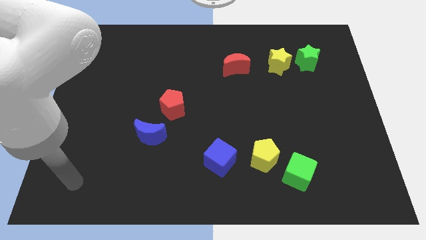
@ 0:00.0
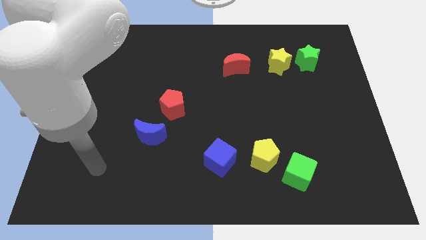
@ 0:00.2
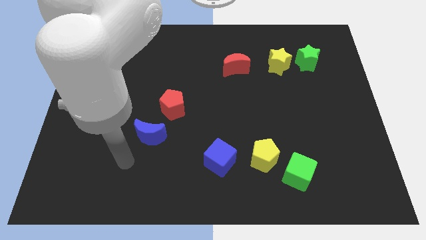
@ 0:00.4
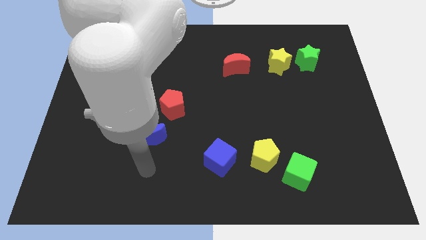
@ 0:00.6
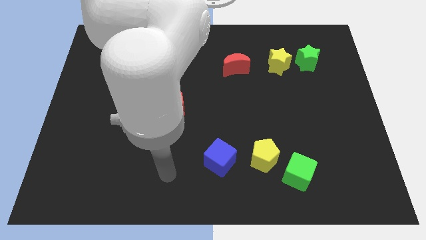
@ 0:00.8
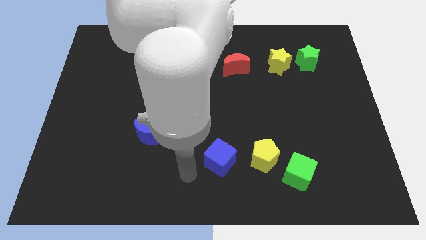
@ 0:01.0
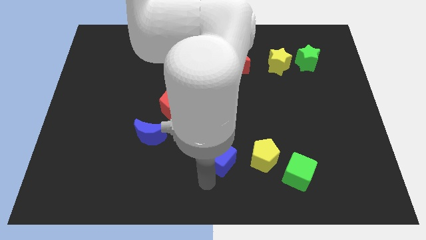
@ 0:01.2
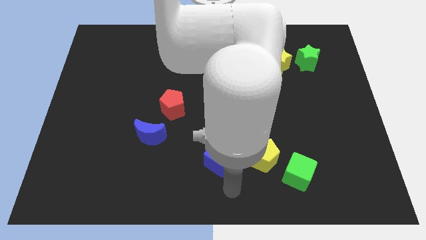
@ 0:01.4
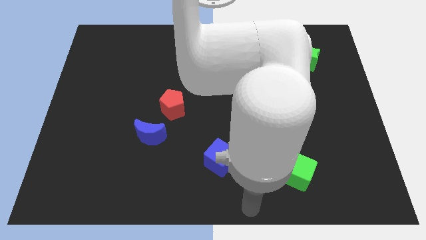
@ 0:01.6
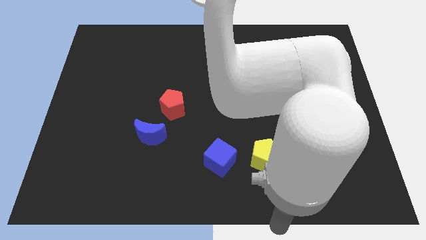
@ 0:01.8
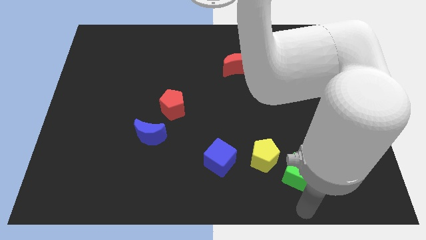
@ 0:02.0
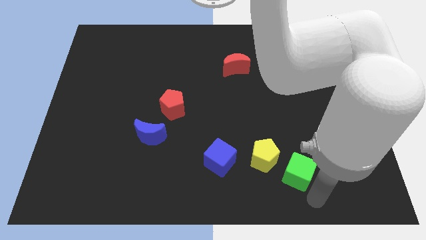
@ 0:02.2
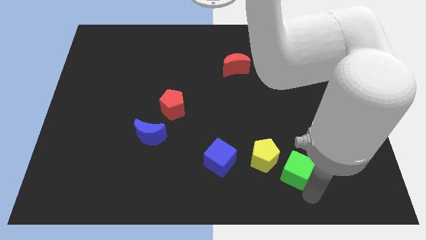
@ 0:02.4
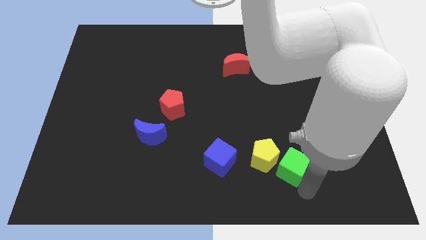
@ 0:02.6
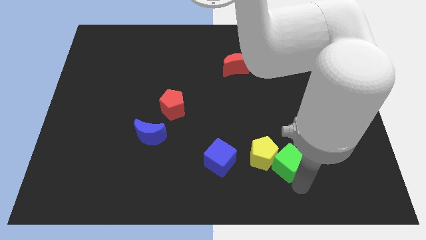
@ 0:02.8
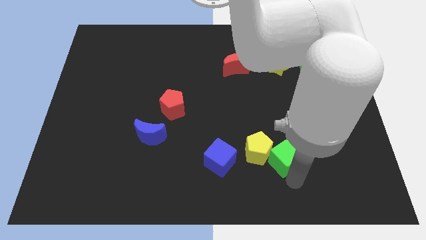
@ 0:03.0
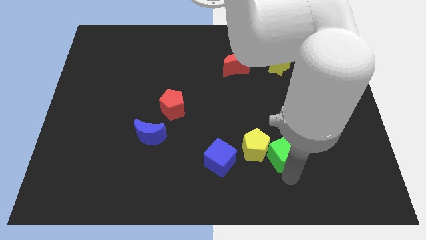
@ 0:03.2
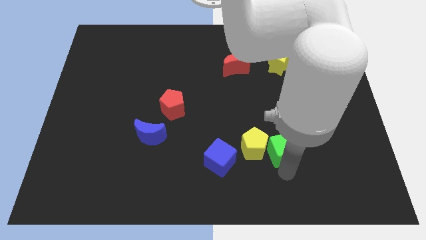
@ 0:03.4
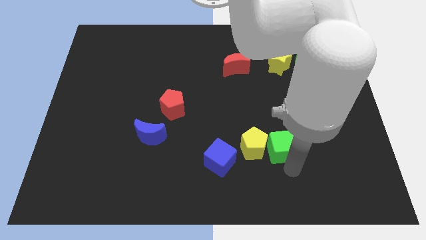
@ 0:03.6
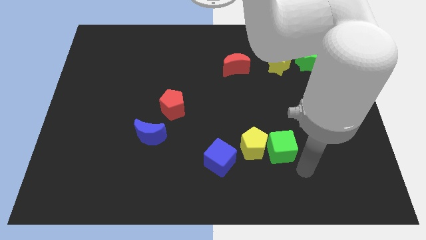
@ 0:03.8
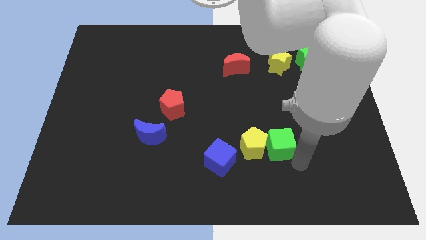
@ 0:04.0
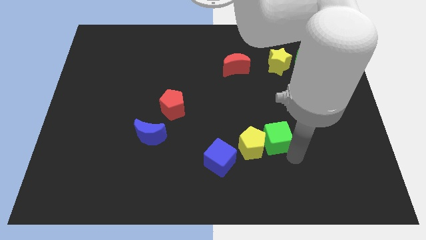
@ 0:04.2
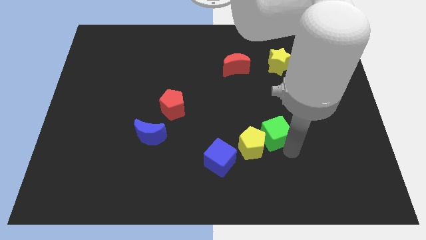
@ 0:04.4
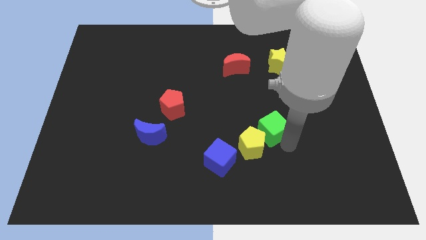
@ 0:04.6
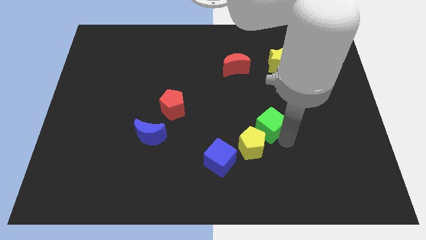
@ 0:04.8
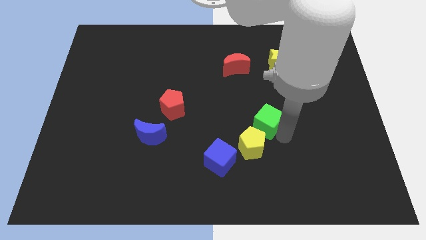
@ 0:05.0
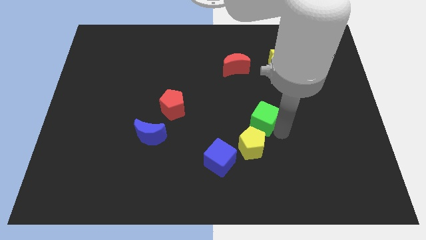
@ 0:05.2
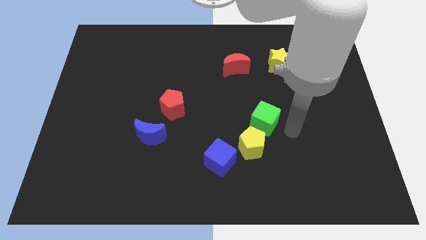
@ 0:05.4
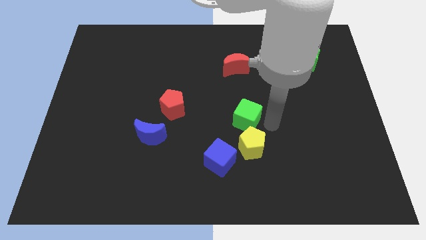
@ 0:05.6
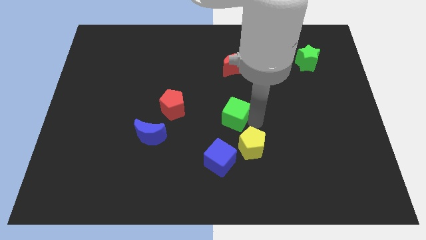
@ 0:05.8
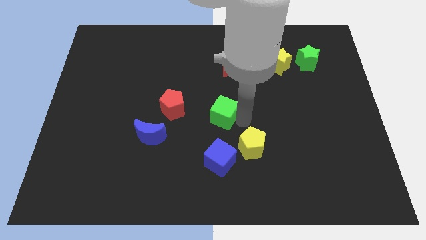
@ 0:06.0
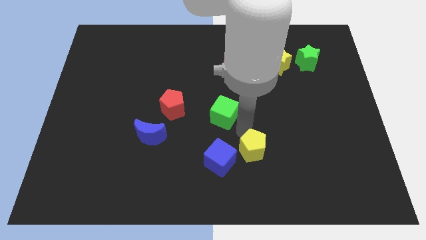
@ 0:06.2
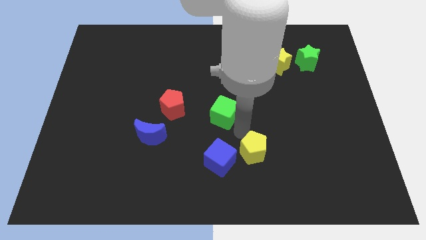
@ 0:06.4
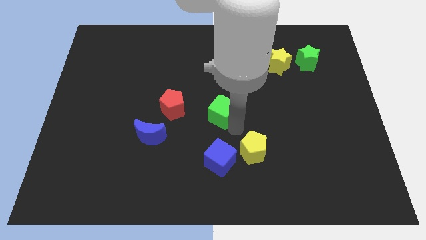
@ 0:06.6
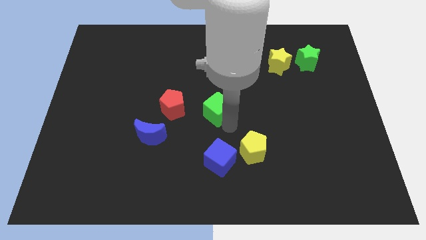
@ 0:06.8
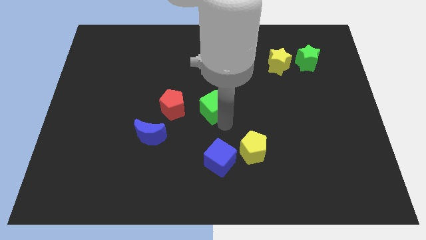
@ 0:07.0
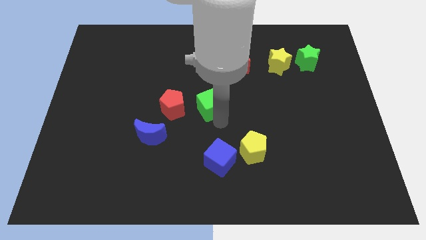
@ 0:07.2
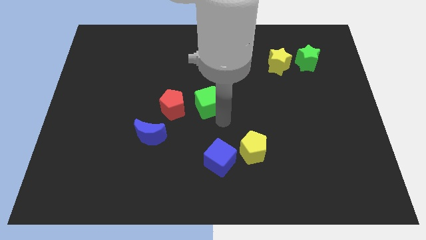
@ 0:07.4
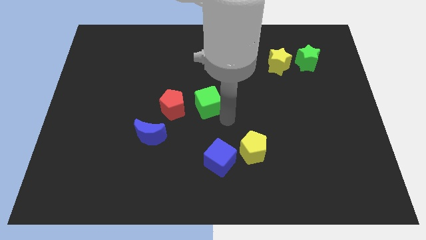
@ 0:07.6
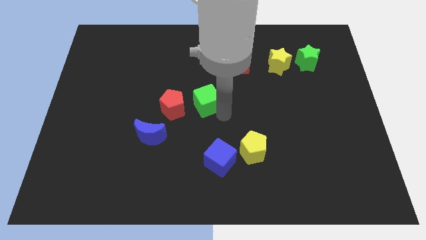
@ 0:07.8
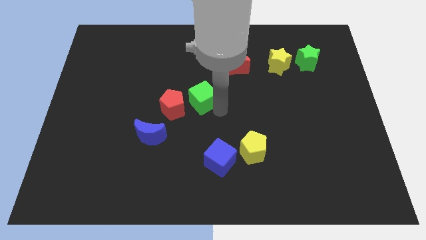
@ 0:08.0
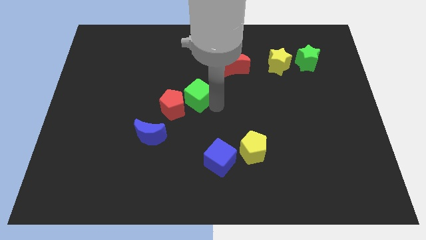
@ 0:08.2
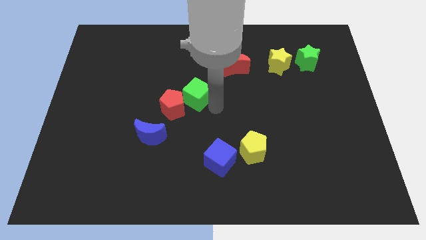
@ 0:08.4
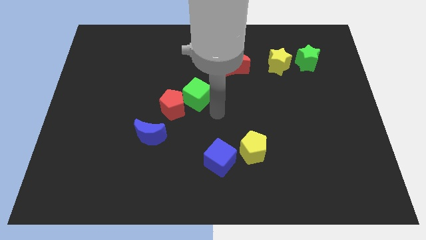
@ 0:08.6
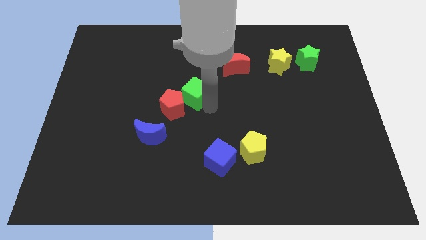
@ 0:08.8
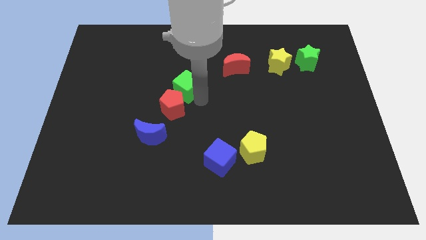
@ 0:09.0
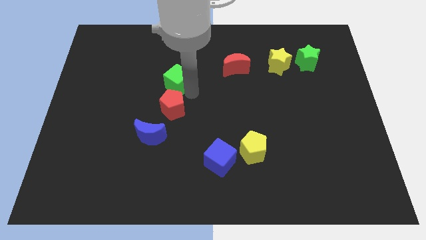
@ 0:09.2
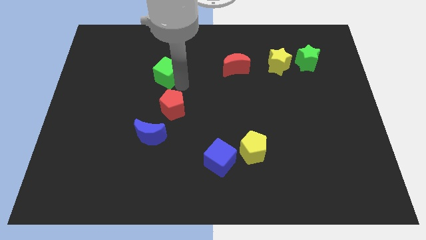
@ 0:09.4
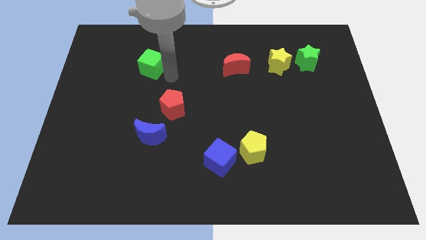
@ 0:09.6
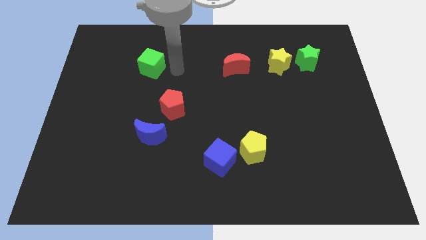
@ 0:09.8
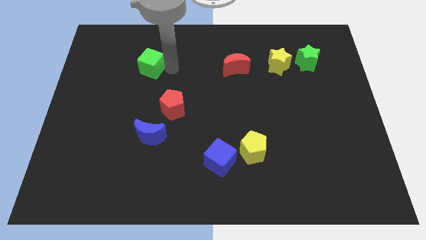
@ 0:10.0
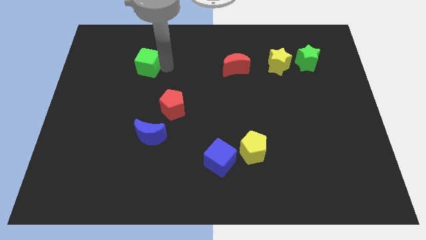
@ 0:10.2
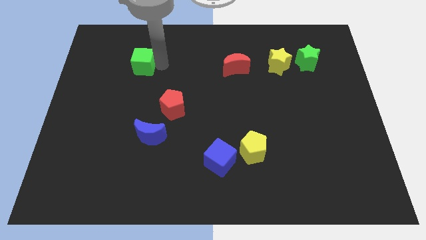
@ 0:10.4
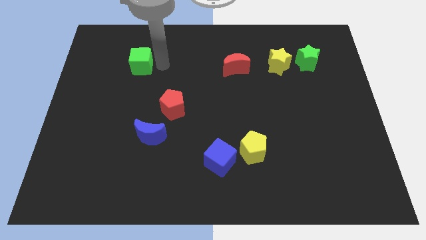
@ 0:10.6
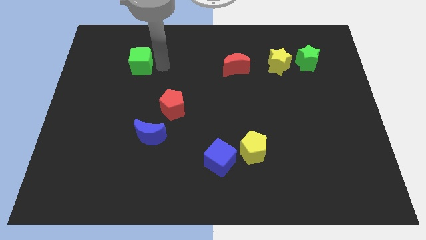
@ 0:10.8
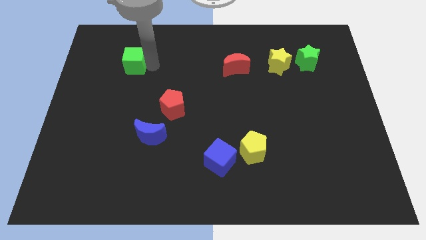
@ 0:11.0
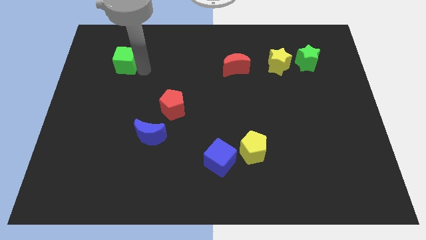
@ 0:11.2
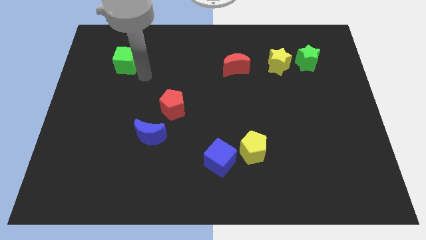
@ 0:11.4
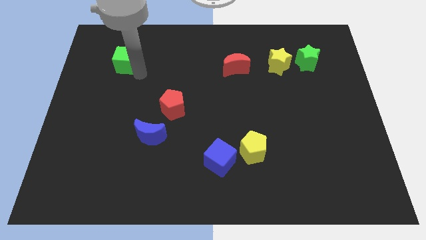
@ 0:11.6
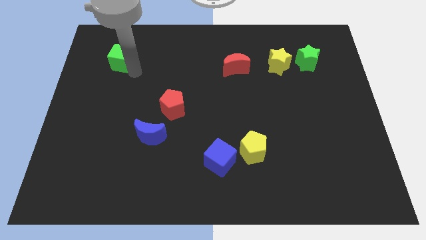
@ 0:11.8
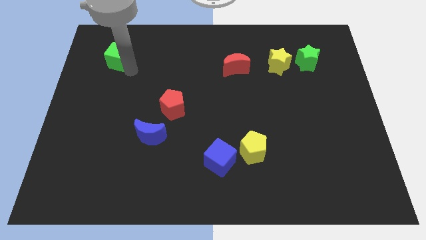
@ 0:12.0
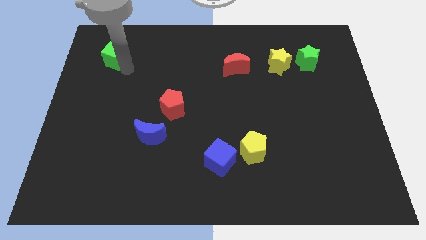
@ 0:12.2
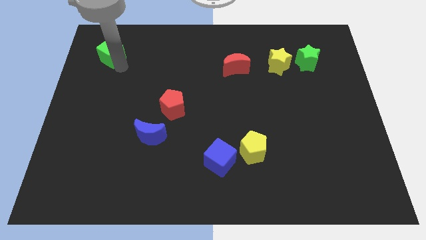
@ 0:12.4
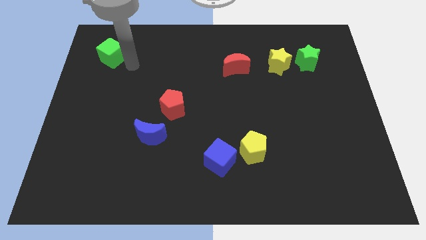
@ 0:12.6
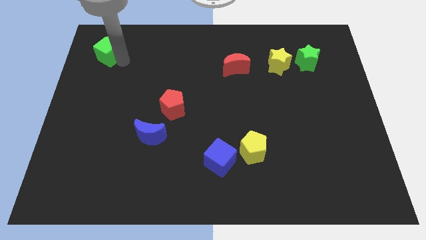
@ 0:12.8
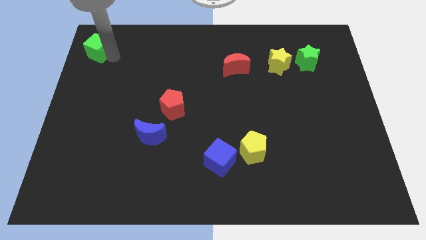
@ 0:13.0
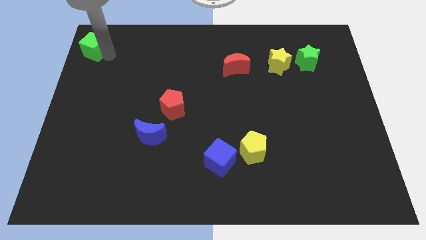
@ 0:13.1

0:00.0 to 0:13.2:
move the green cube to the top left
